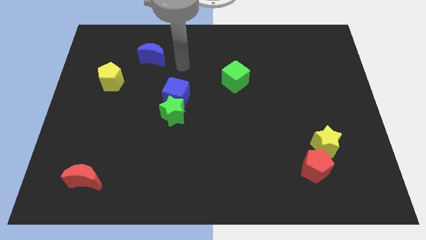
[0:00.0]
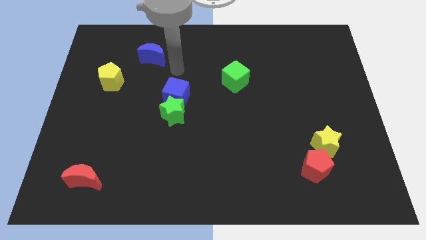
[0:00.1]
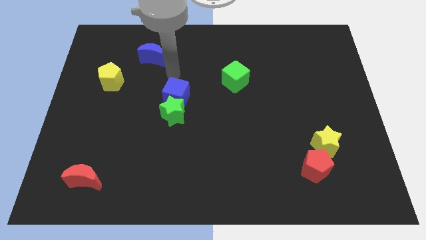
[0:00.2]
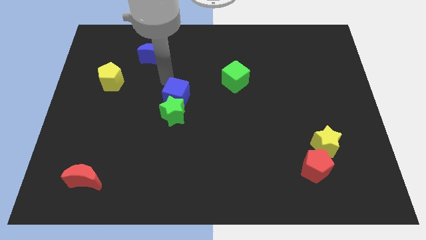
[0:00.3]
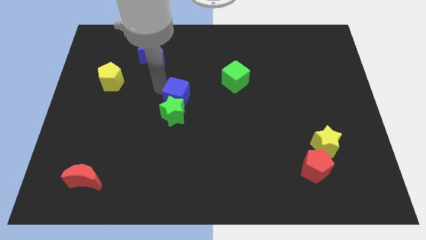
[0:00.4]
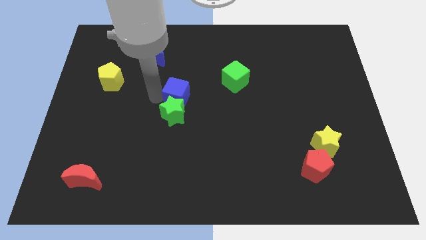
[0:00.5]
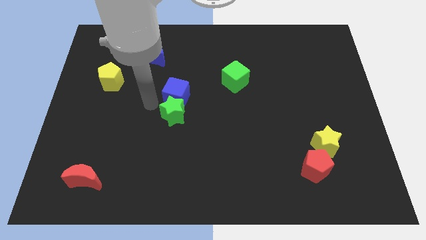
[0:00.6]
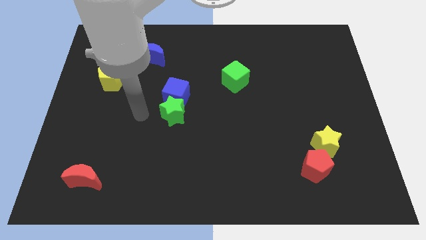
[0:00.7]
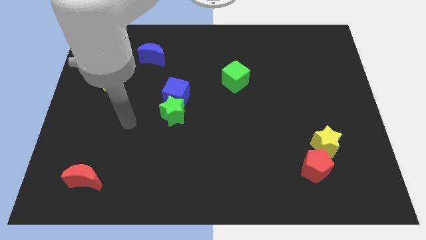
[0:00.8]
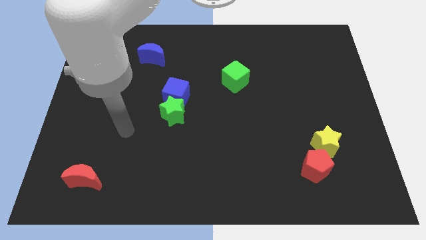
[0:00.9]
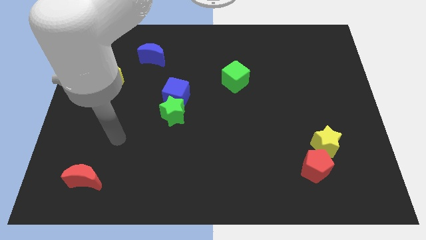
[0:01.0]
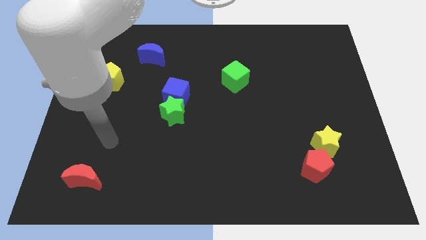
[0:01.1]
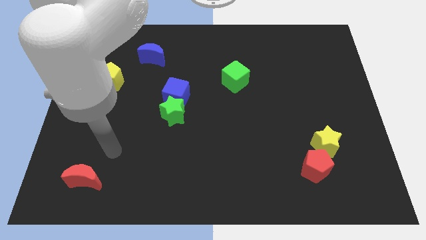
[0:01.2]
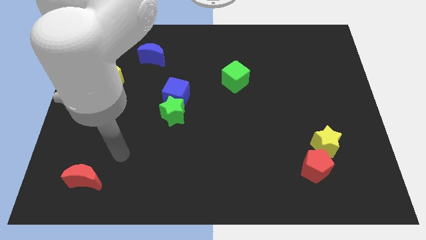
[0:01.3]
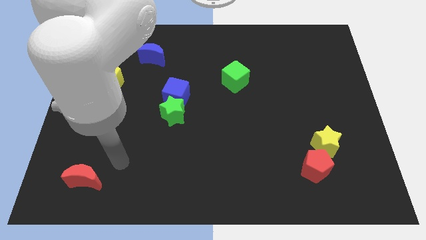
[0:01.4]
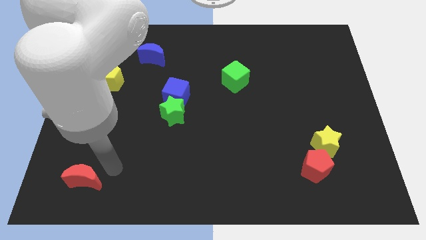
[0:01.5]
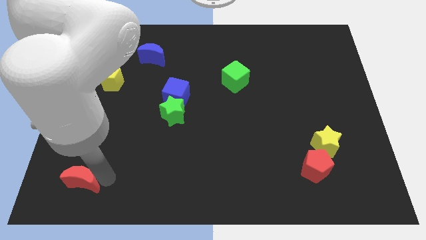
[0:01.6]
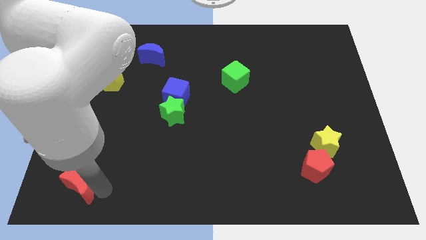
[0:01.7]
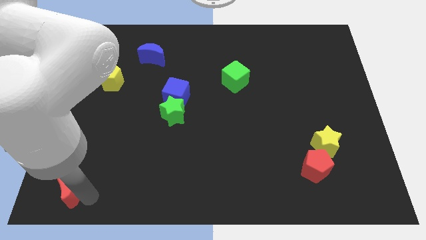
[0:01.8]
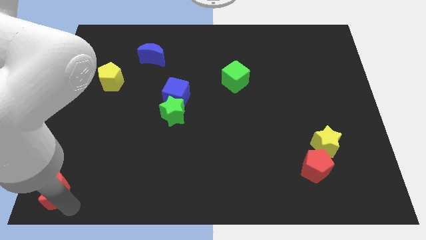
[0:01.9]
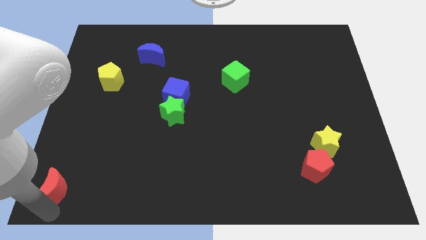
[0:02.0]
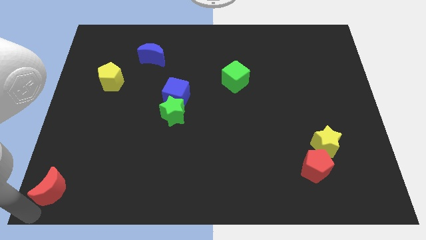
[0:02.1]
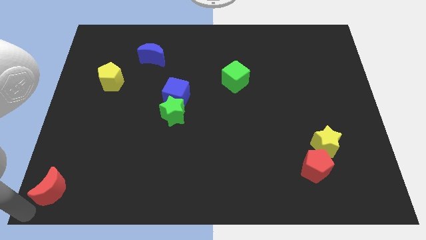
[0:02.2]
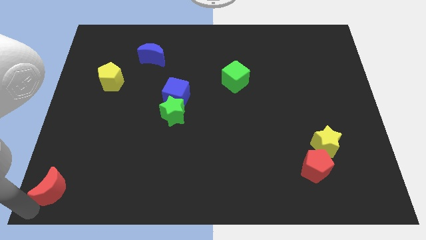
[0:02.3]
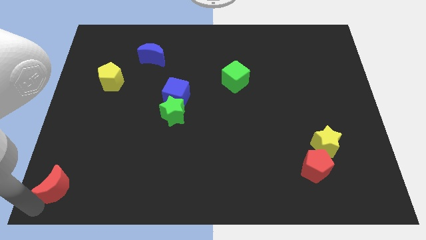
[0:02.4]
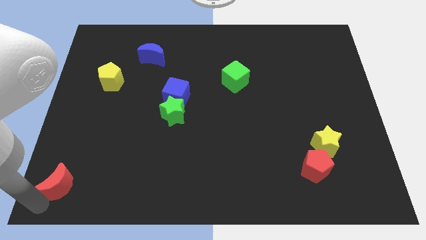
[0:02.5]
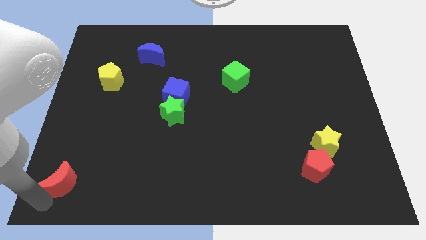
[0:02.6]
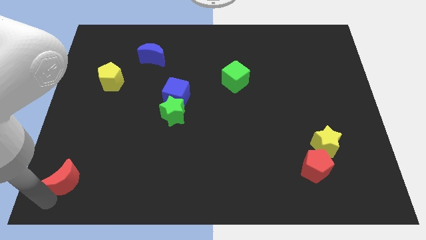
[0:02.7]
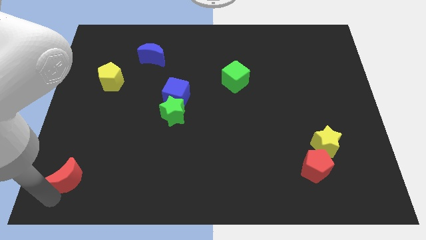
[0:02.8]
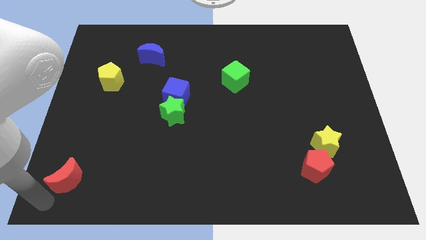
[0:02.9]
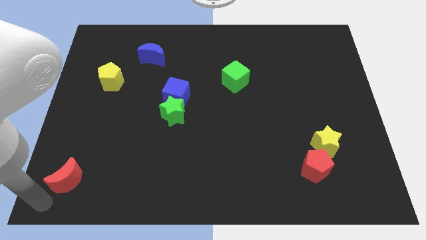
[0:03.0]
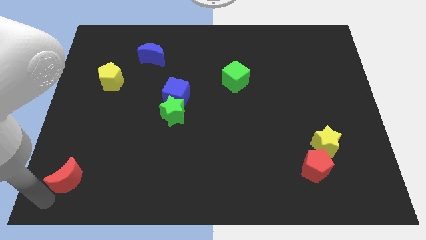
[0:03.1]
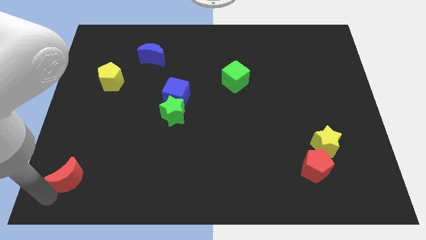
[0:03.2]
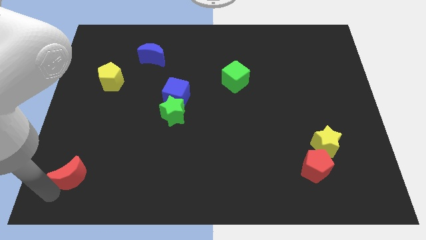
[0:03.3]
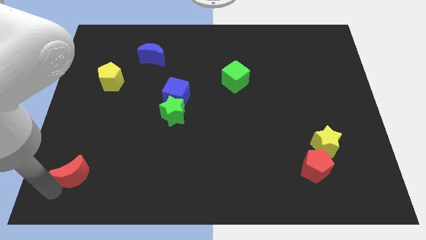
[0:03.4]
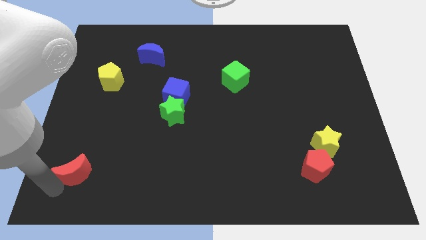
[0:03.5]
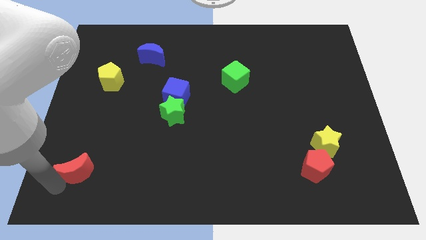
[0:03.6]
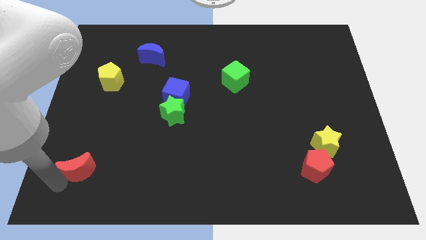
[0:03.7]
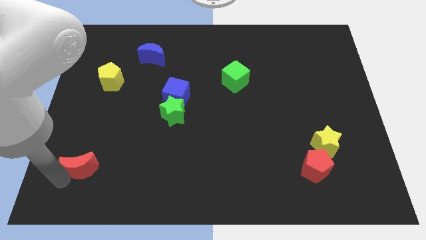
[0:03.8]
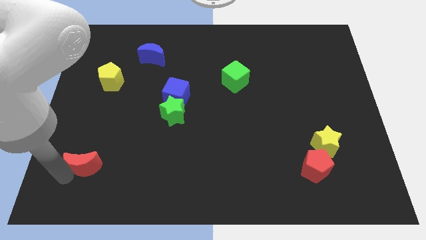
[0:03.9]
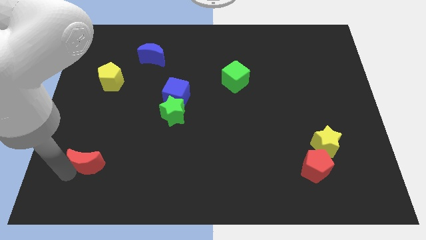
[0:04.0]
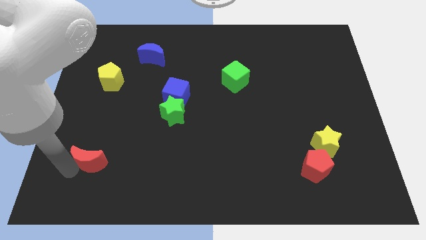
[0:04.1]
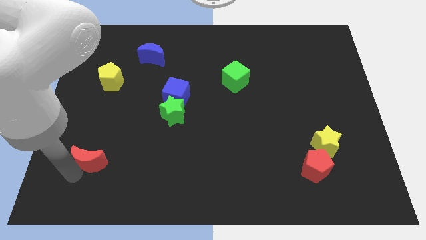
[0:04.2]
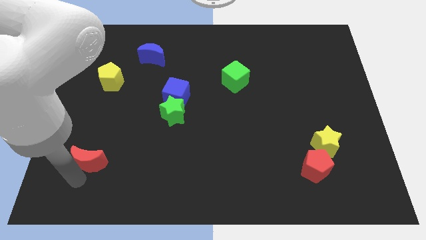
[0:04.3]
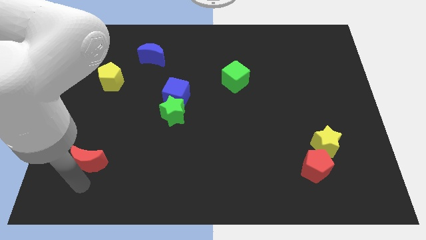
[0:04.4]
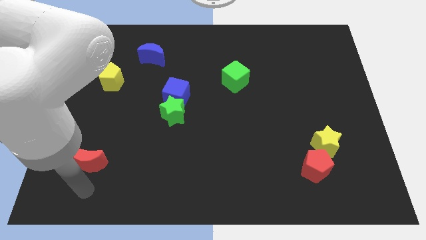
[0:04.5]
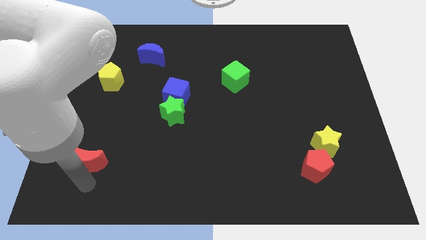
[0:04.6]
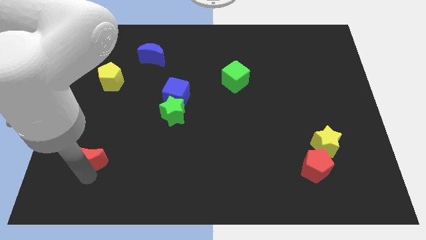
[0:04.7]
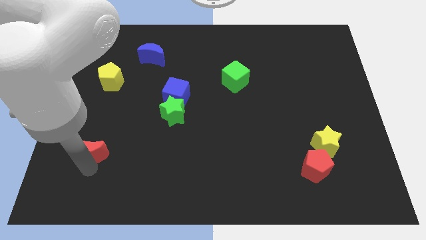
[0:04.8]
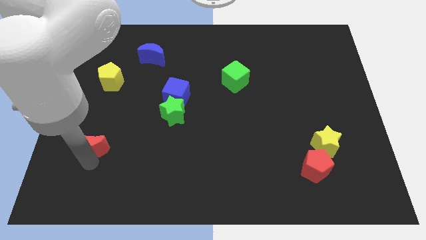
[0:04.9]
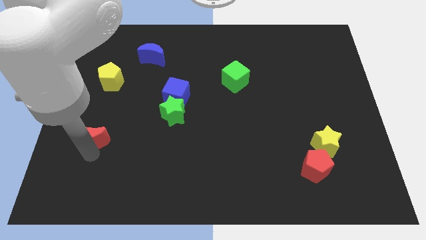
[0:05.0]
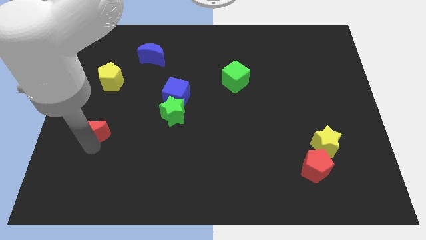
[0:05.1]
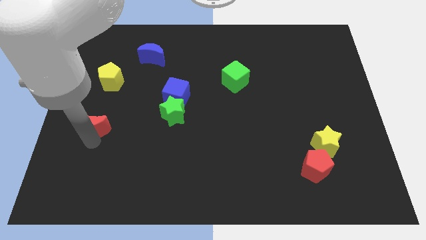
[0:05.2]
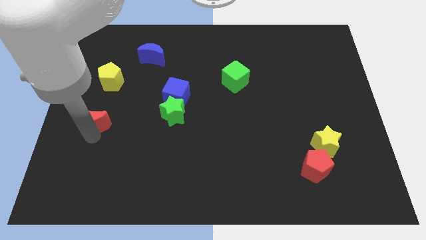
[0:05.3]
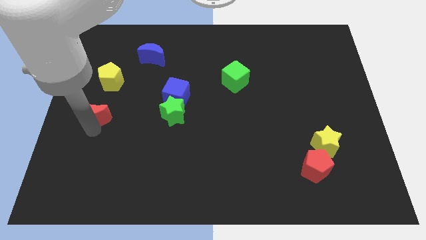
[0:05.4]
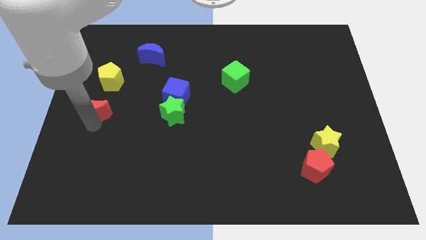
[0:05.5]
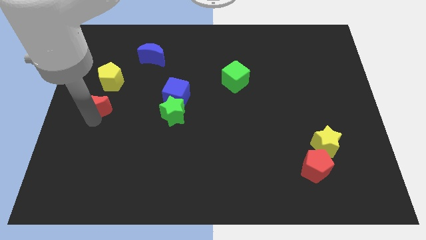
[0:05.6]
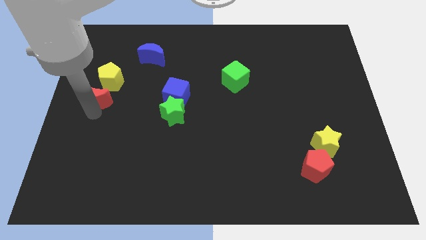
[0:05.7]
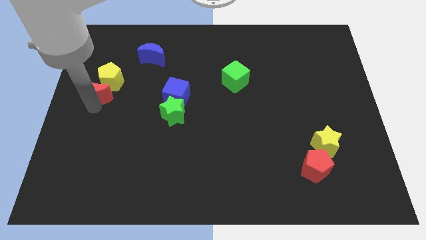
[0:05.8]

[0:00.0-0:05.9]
put the red moon to the yellow pentagon

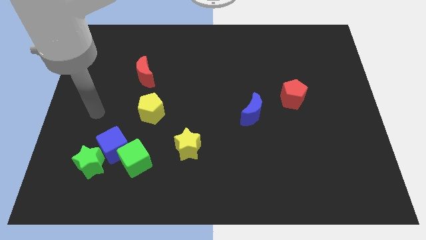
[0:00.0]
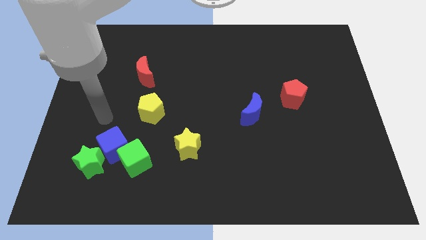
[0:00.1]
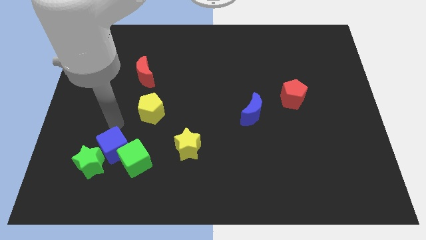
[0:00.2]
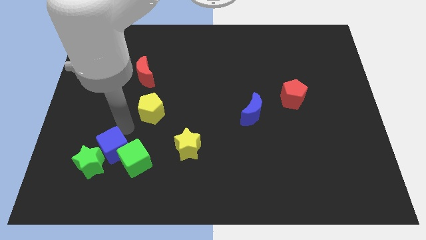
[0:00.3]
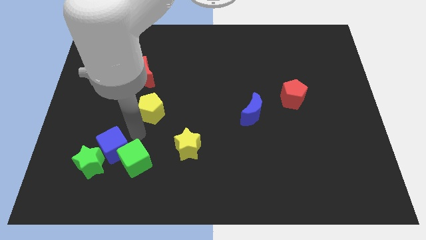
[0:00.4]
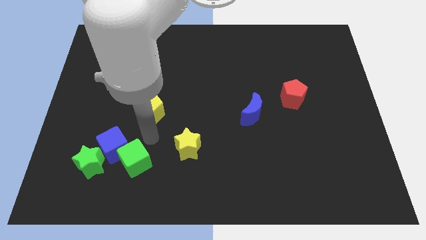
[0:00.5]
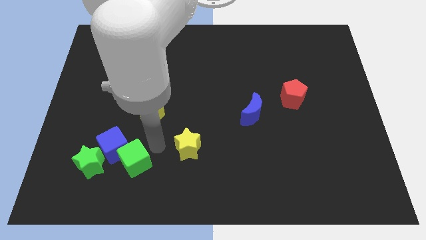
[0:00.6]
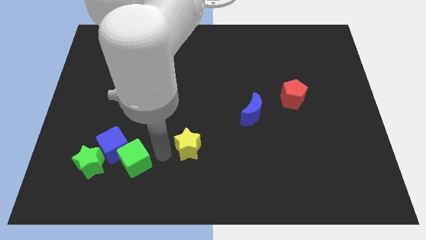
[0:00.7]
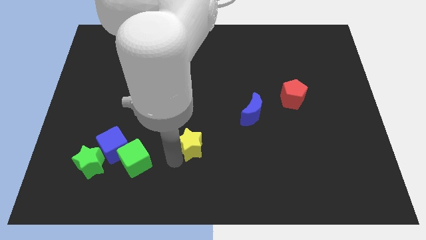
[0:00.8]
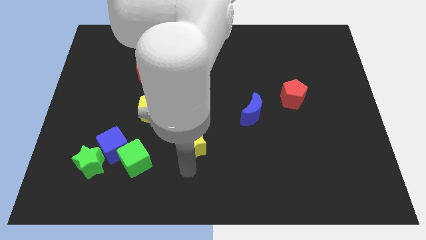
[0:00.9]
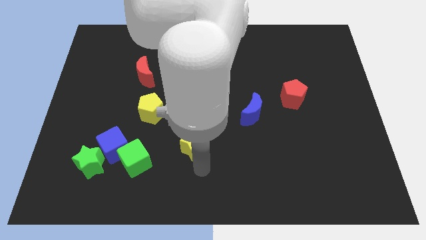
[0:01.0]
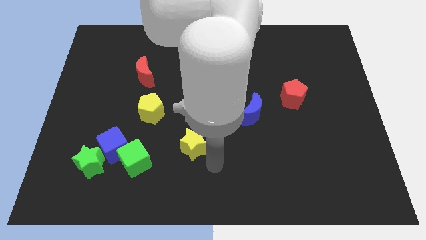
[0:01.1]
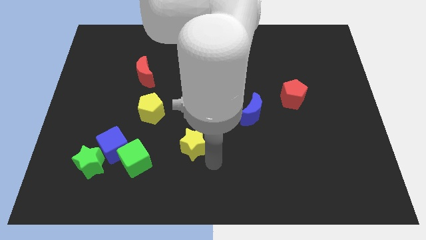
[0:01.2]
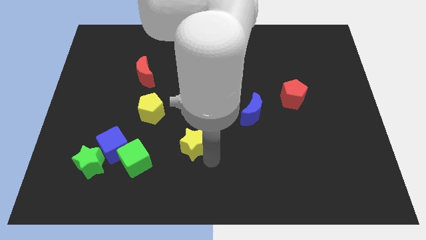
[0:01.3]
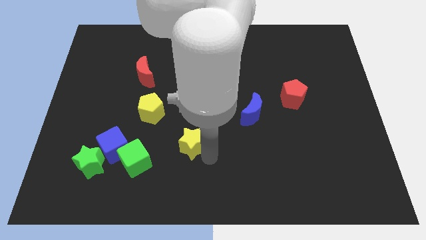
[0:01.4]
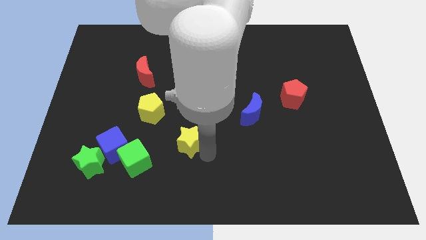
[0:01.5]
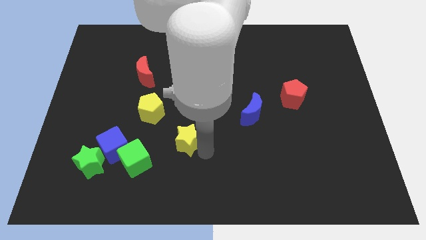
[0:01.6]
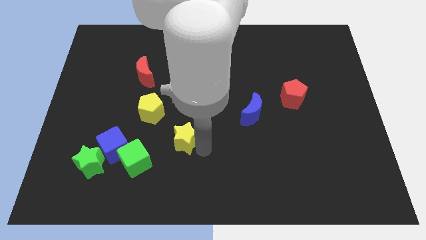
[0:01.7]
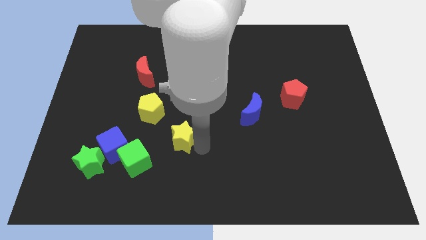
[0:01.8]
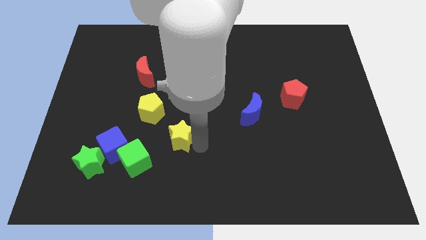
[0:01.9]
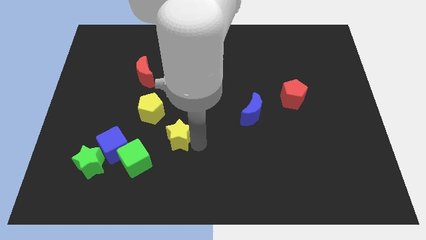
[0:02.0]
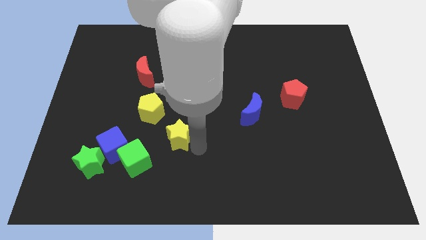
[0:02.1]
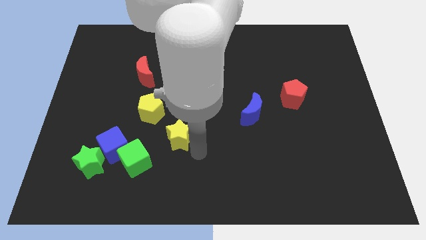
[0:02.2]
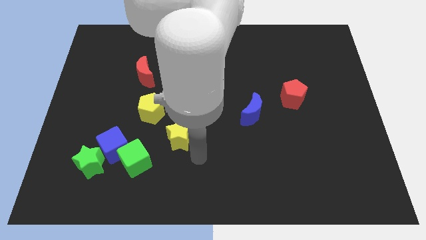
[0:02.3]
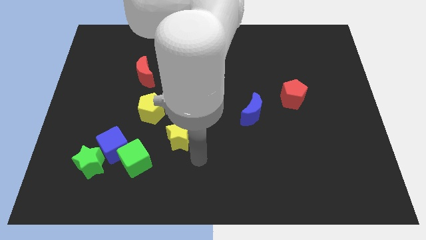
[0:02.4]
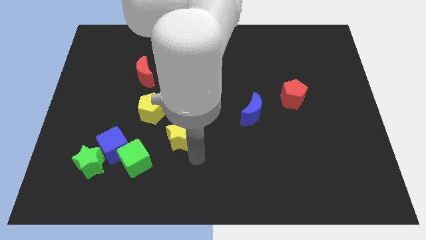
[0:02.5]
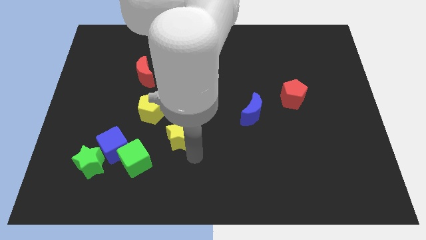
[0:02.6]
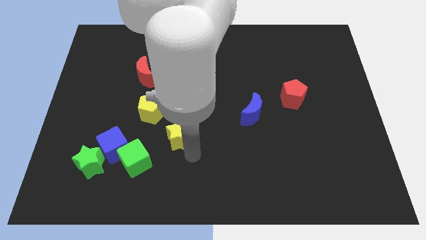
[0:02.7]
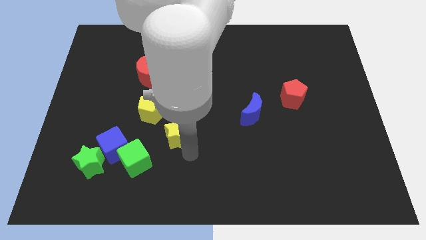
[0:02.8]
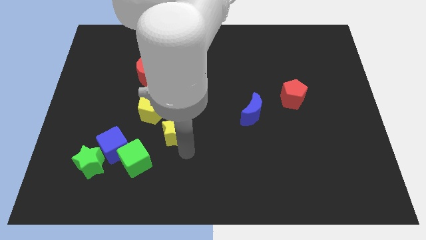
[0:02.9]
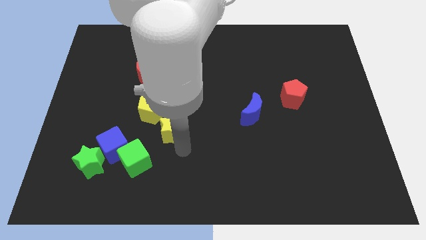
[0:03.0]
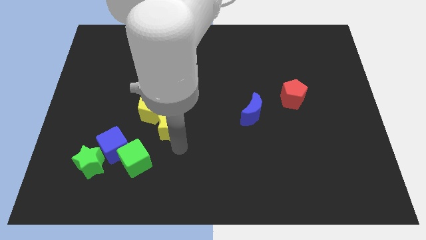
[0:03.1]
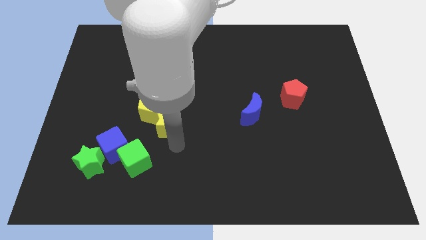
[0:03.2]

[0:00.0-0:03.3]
slide the yellow star to the yellow pentagon
